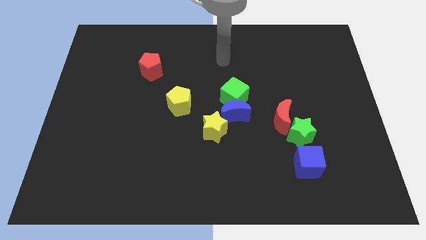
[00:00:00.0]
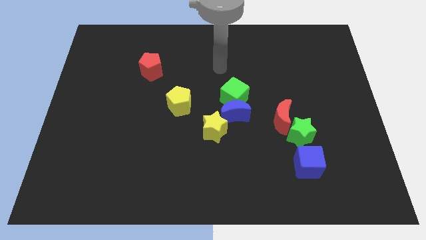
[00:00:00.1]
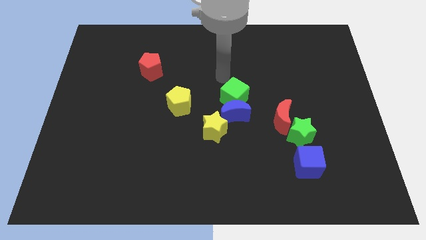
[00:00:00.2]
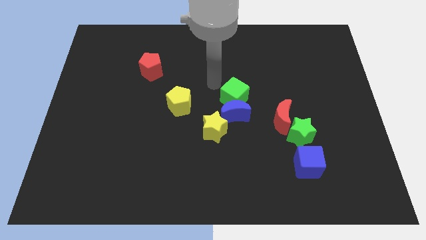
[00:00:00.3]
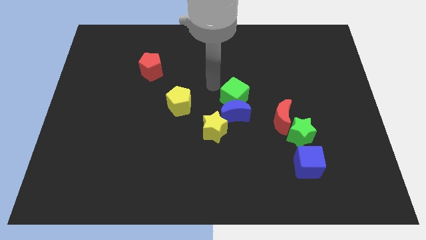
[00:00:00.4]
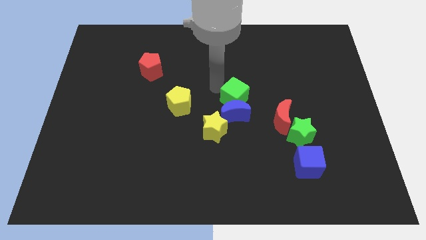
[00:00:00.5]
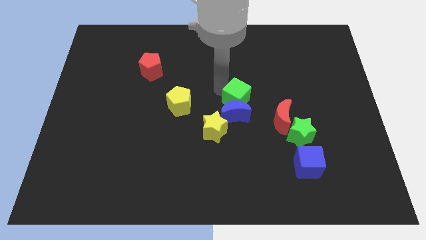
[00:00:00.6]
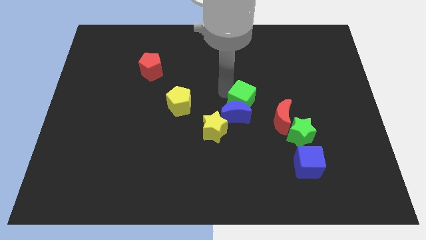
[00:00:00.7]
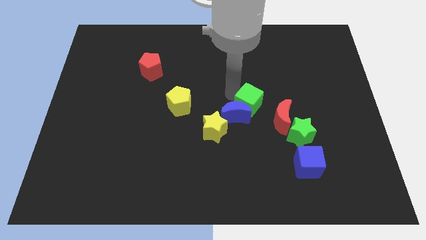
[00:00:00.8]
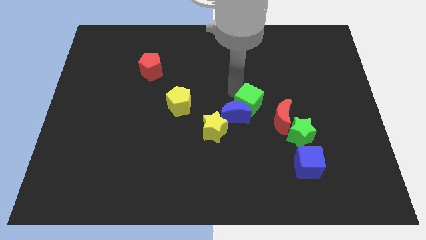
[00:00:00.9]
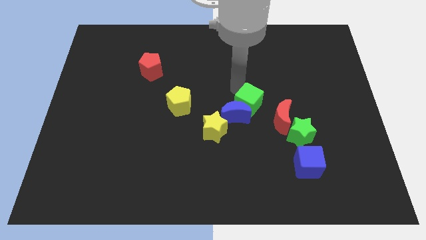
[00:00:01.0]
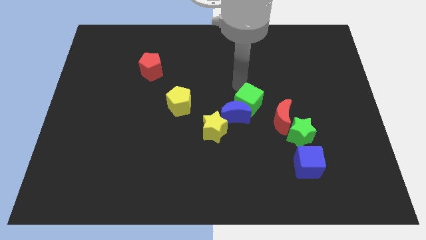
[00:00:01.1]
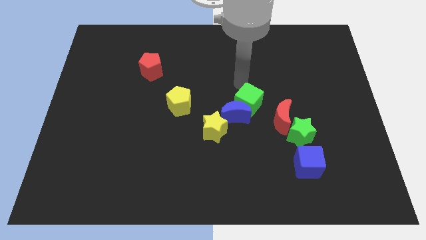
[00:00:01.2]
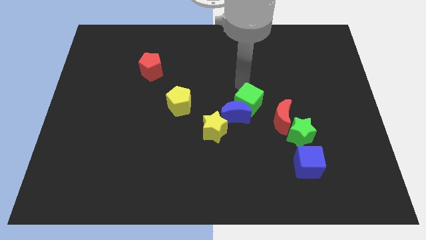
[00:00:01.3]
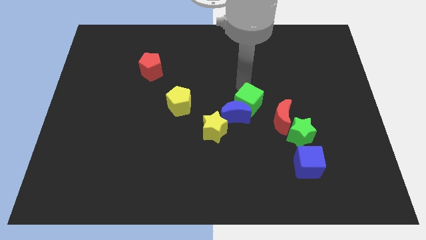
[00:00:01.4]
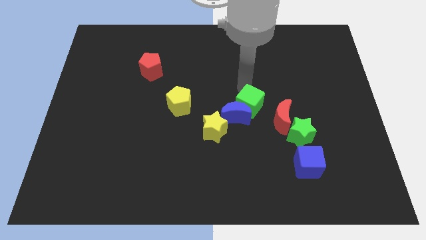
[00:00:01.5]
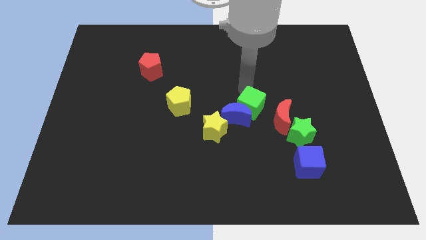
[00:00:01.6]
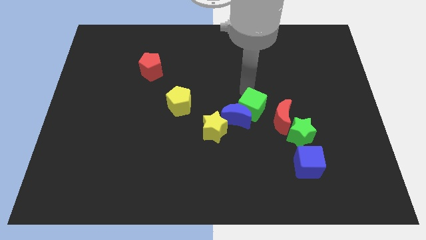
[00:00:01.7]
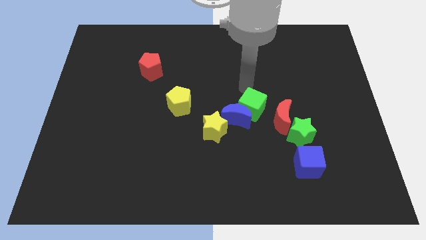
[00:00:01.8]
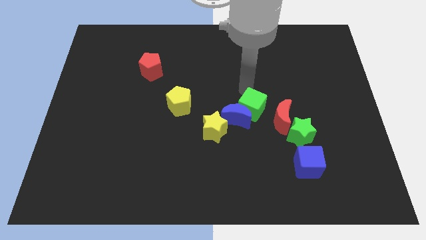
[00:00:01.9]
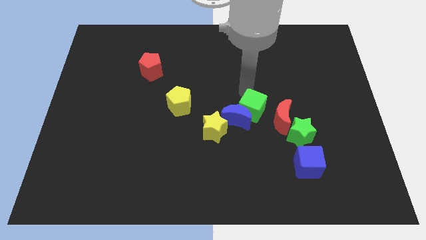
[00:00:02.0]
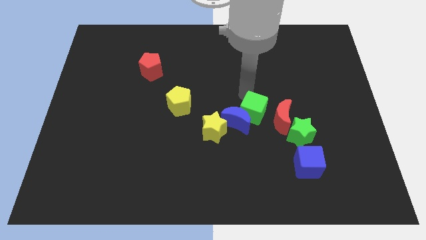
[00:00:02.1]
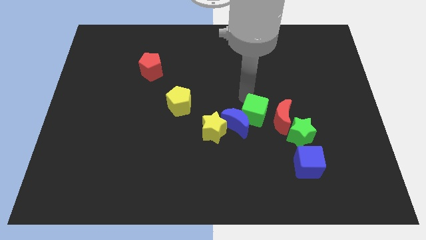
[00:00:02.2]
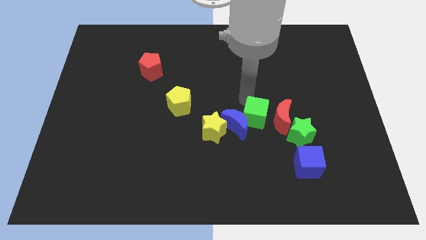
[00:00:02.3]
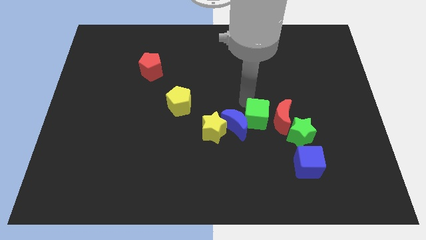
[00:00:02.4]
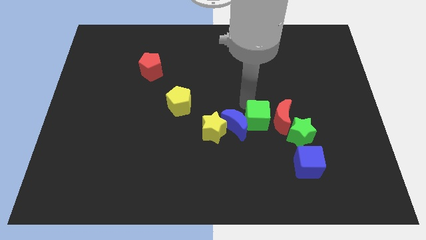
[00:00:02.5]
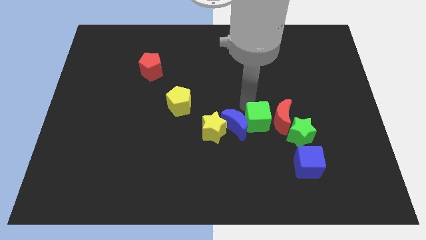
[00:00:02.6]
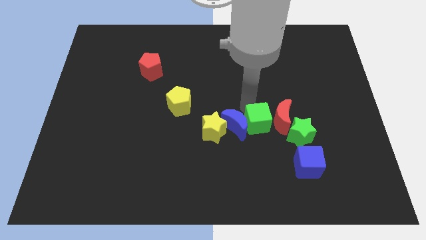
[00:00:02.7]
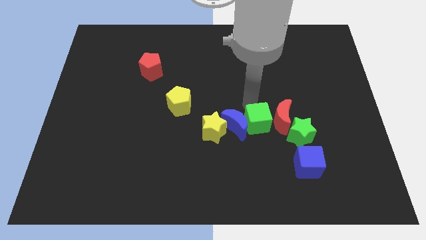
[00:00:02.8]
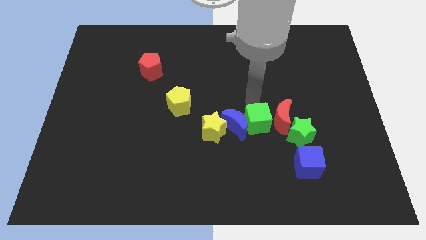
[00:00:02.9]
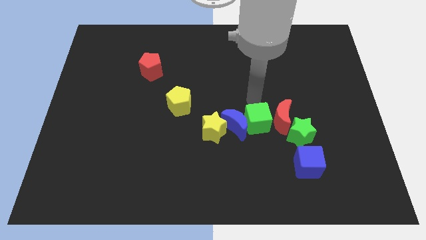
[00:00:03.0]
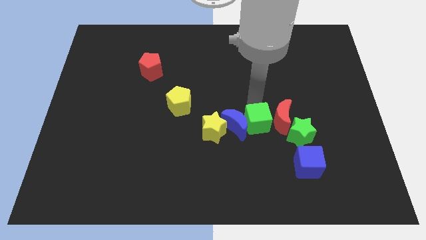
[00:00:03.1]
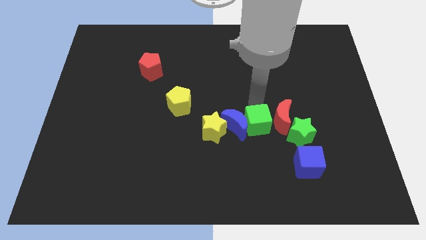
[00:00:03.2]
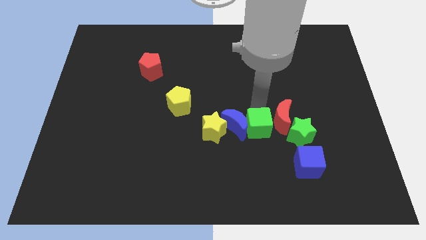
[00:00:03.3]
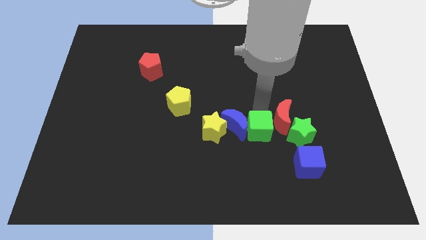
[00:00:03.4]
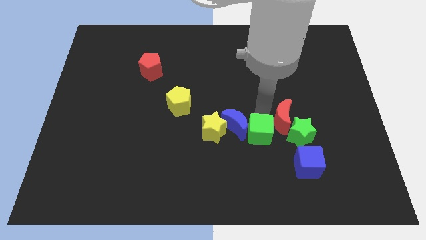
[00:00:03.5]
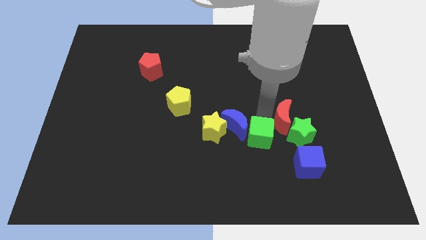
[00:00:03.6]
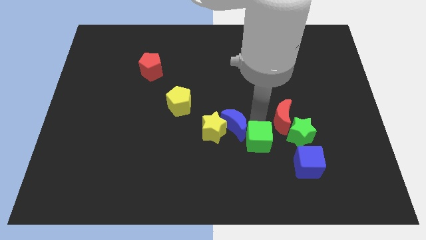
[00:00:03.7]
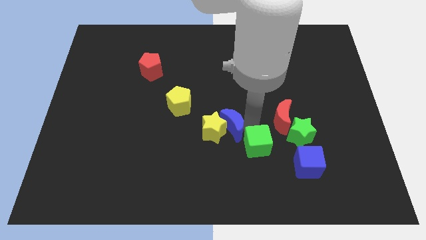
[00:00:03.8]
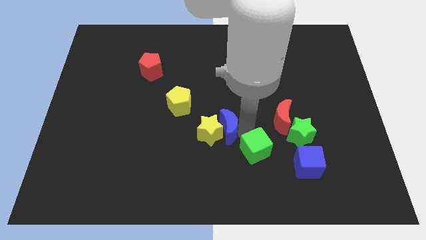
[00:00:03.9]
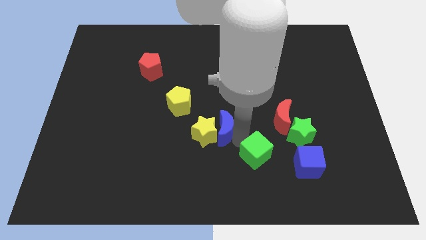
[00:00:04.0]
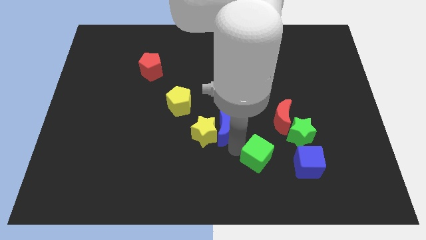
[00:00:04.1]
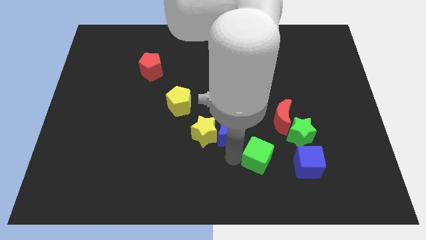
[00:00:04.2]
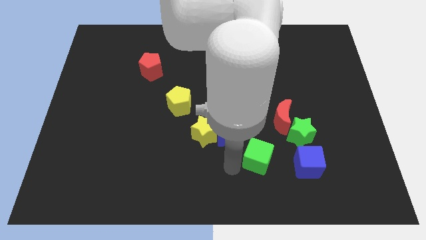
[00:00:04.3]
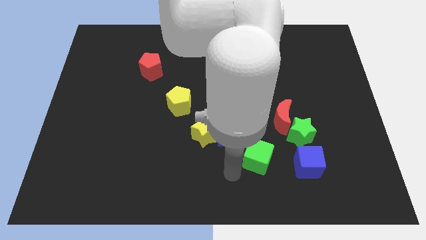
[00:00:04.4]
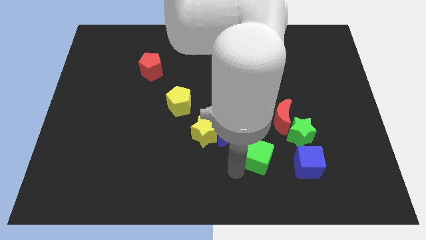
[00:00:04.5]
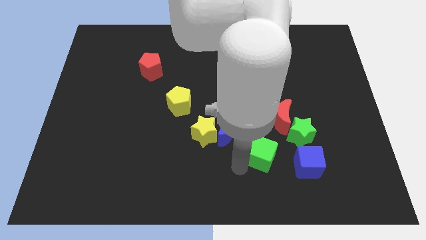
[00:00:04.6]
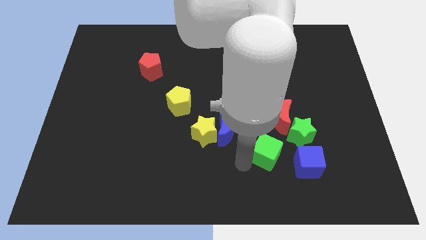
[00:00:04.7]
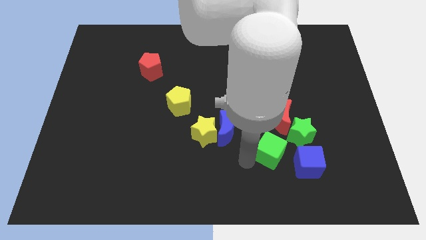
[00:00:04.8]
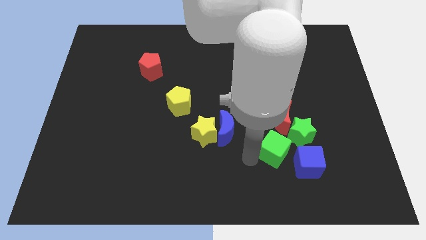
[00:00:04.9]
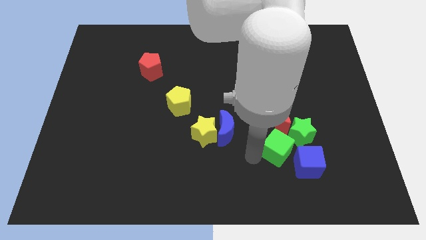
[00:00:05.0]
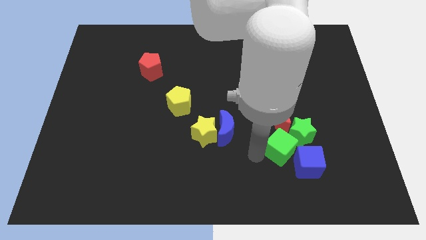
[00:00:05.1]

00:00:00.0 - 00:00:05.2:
put the green cube to the green star

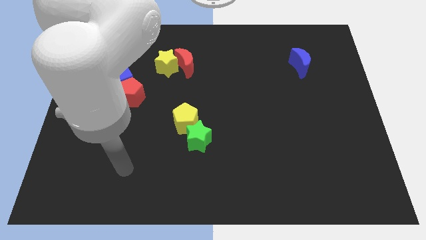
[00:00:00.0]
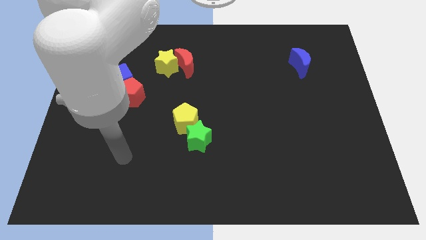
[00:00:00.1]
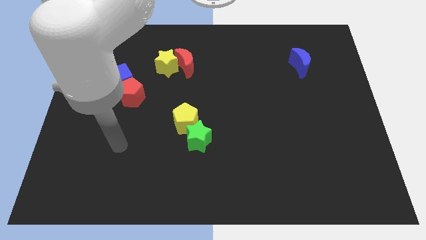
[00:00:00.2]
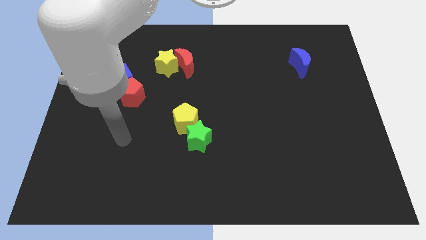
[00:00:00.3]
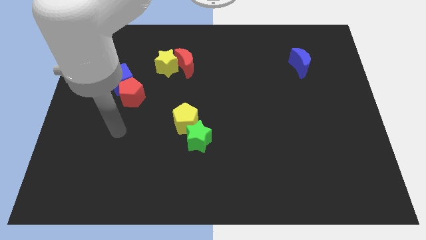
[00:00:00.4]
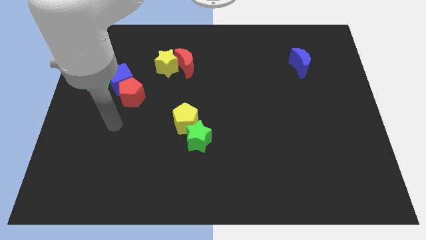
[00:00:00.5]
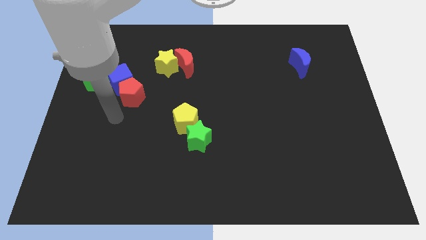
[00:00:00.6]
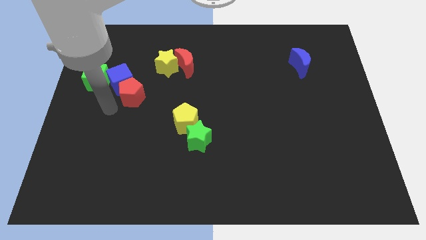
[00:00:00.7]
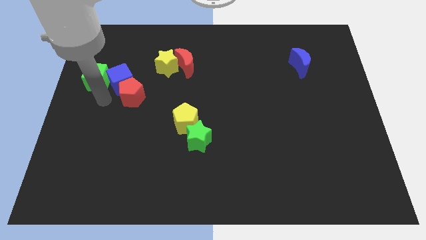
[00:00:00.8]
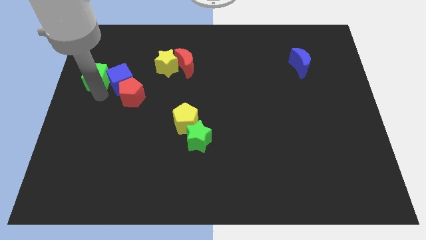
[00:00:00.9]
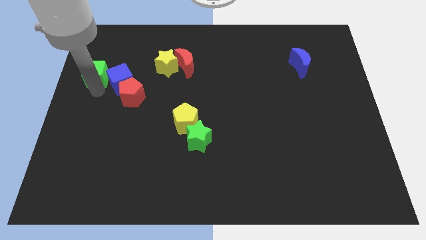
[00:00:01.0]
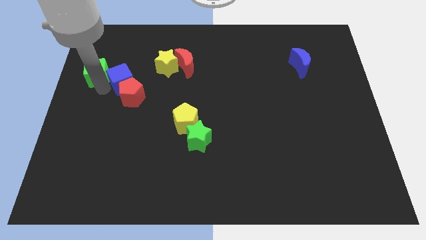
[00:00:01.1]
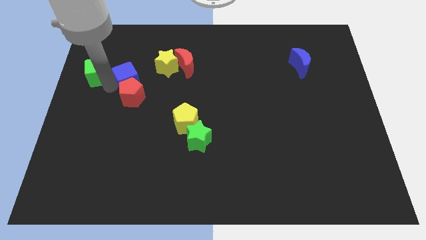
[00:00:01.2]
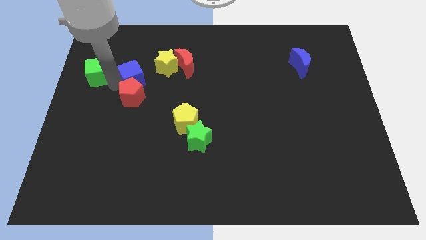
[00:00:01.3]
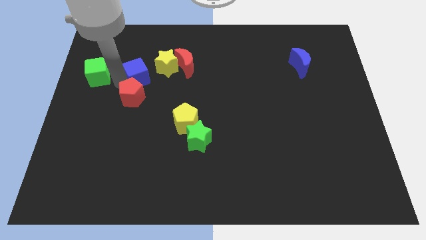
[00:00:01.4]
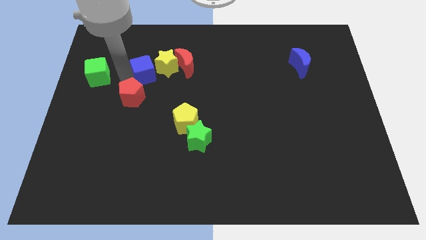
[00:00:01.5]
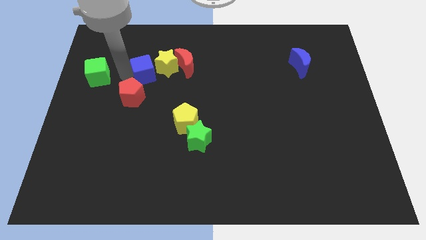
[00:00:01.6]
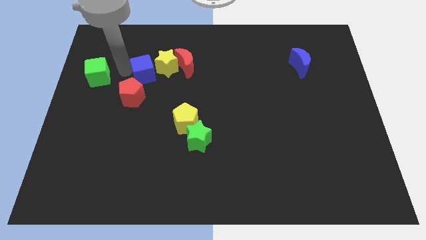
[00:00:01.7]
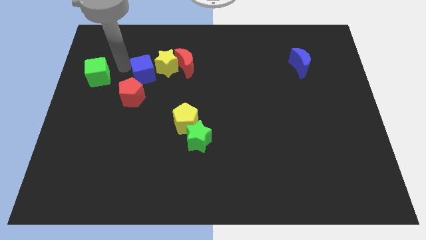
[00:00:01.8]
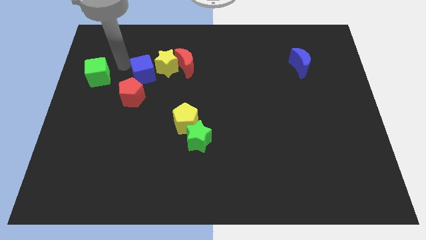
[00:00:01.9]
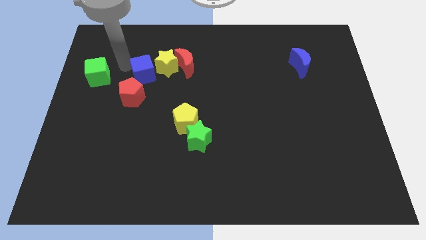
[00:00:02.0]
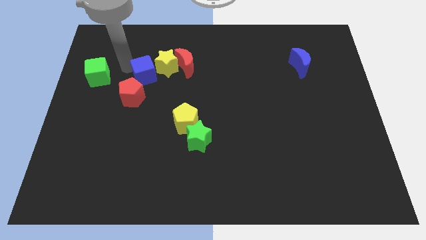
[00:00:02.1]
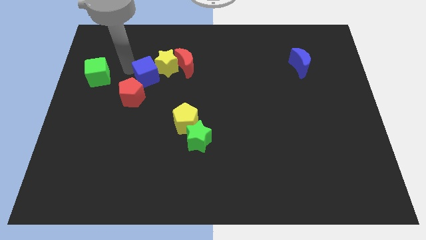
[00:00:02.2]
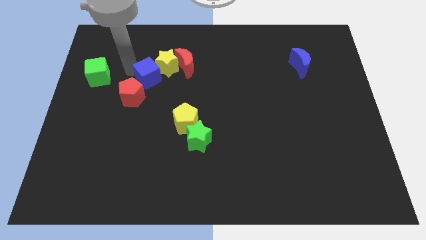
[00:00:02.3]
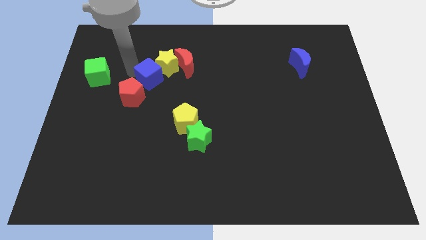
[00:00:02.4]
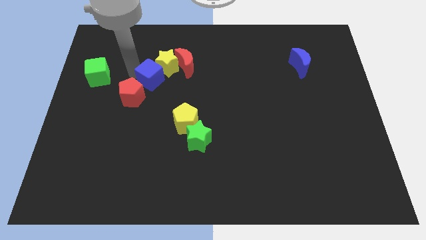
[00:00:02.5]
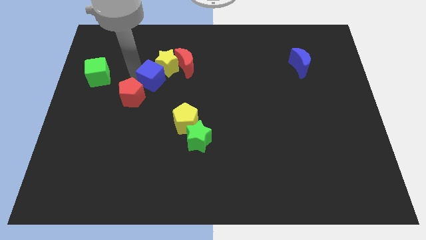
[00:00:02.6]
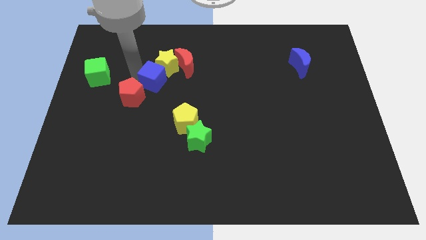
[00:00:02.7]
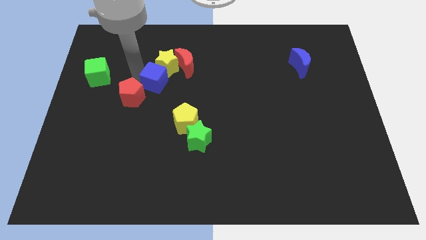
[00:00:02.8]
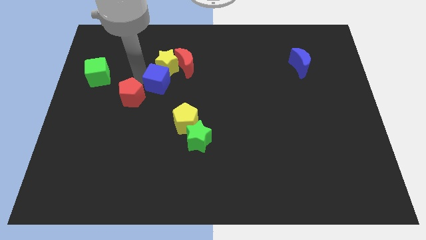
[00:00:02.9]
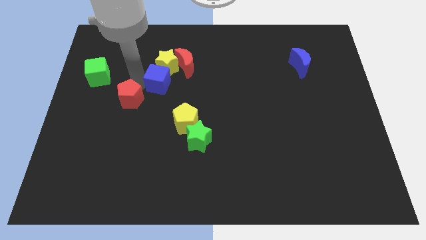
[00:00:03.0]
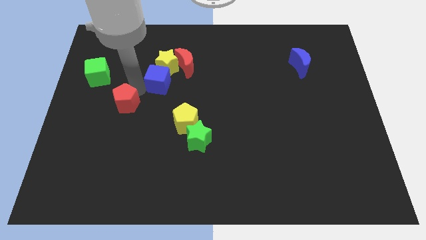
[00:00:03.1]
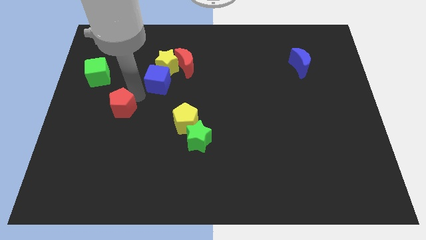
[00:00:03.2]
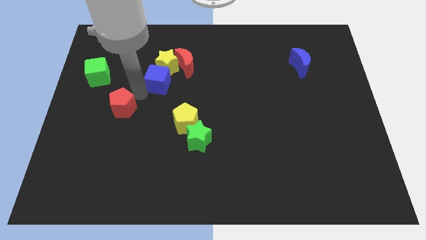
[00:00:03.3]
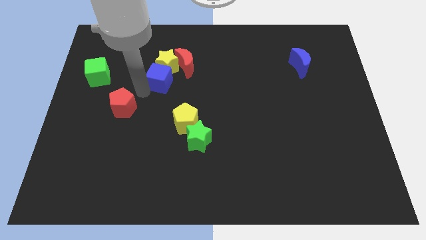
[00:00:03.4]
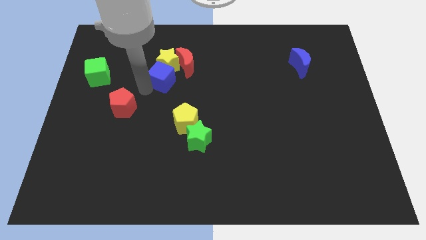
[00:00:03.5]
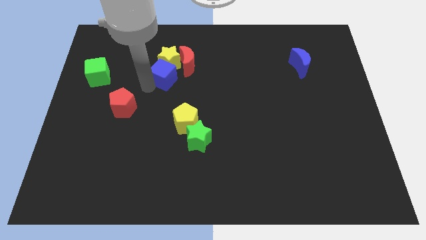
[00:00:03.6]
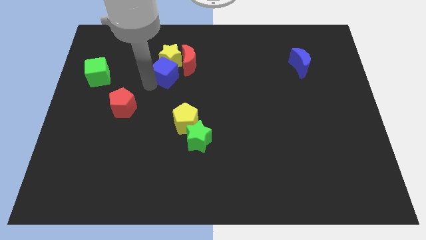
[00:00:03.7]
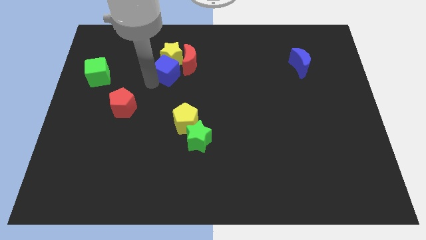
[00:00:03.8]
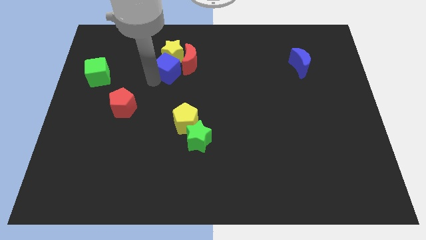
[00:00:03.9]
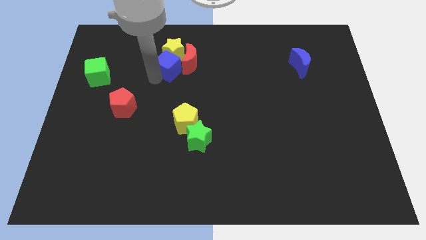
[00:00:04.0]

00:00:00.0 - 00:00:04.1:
put the blue cube to the red moon
